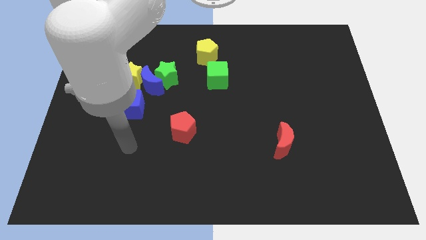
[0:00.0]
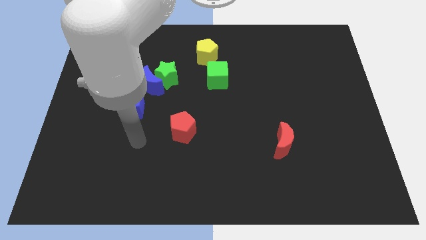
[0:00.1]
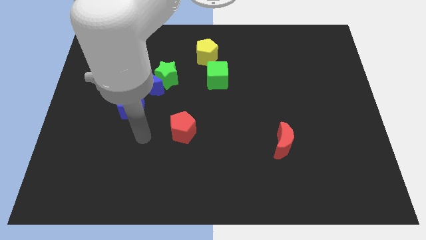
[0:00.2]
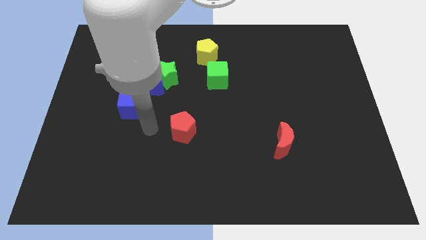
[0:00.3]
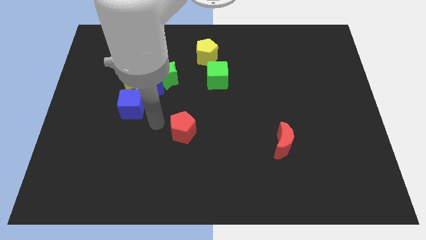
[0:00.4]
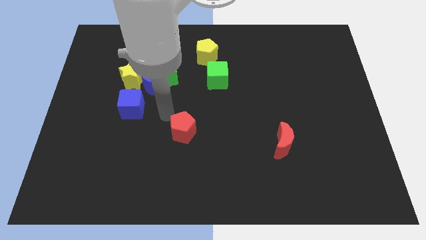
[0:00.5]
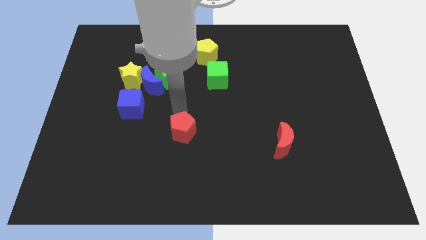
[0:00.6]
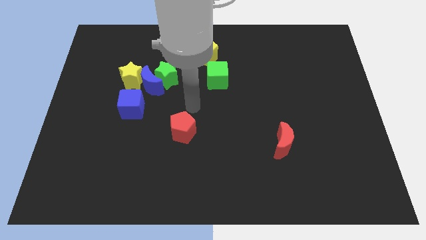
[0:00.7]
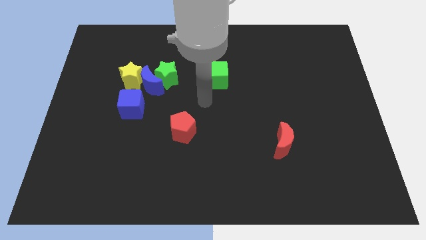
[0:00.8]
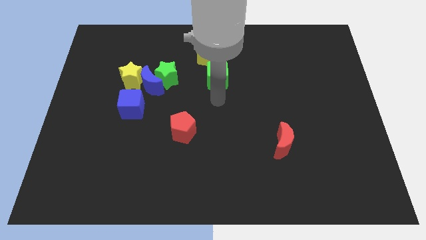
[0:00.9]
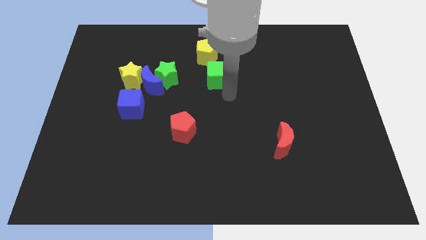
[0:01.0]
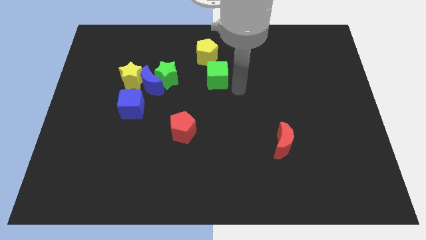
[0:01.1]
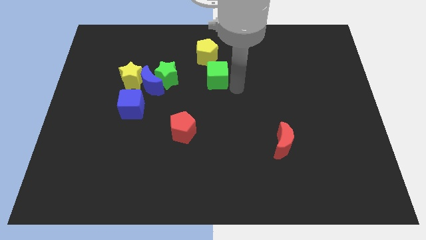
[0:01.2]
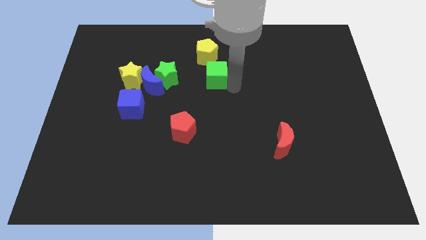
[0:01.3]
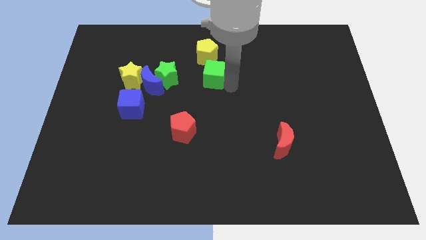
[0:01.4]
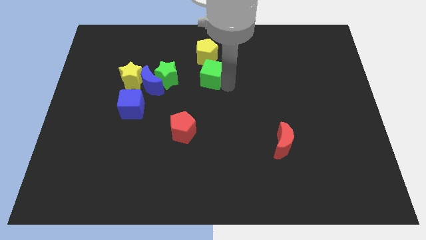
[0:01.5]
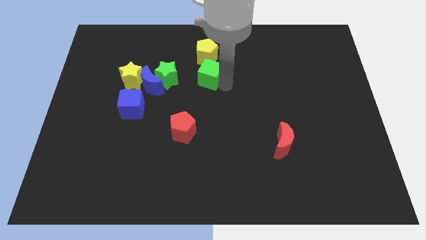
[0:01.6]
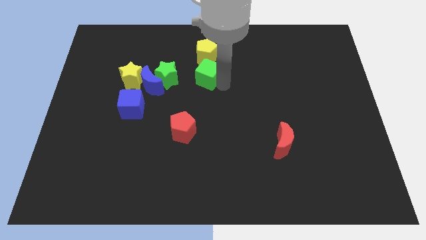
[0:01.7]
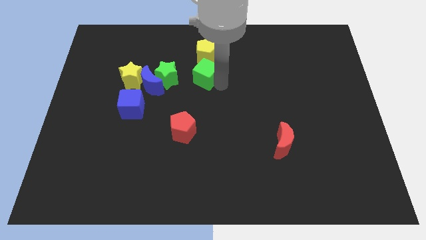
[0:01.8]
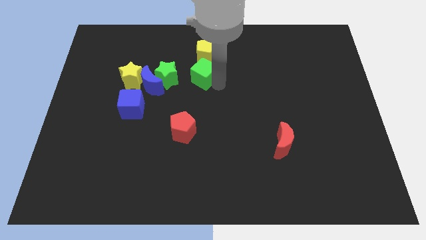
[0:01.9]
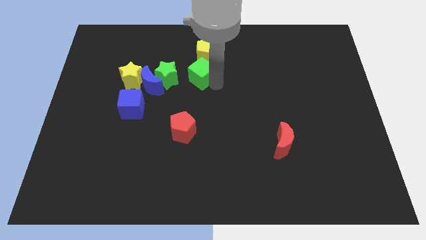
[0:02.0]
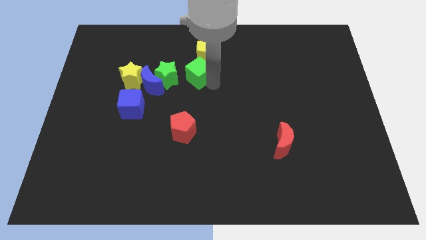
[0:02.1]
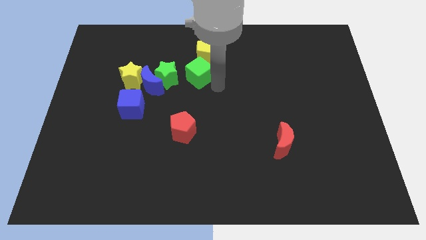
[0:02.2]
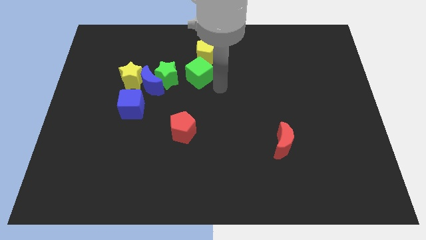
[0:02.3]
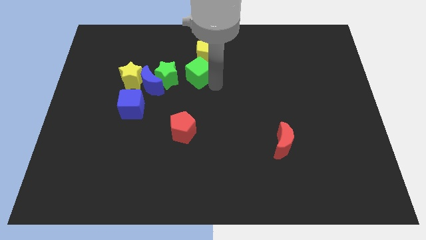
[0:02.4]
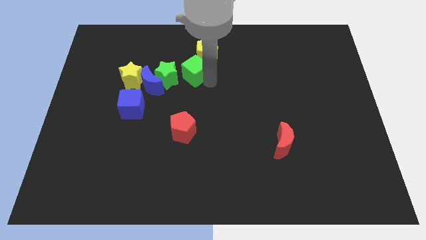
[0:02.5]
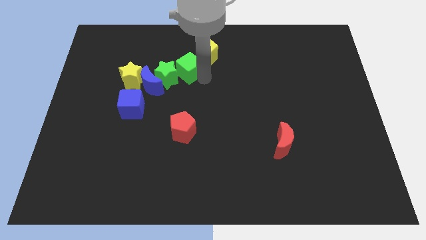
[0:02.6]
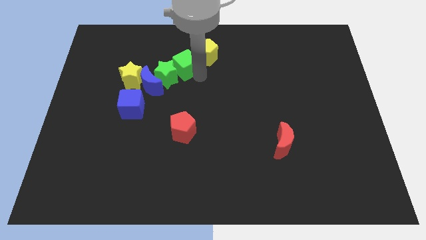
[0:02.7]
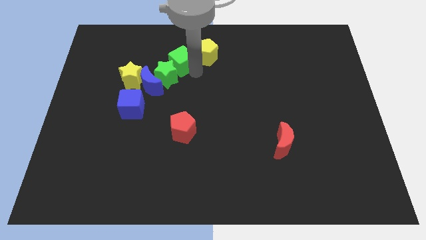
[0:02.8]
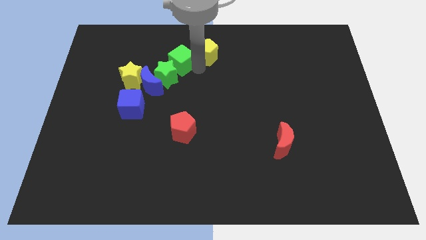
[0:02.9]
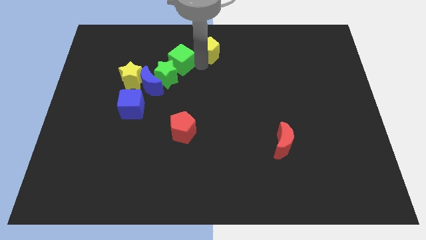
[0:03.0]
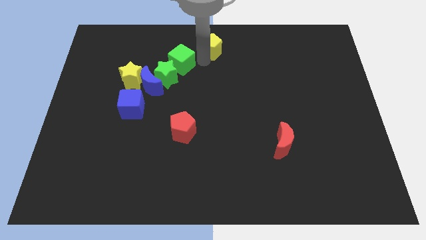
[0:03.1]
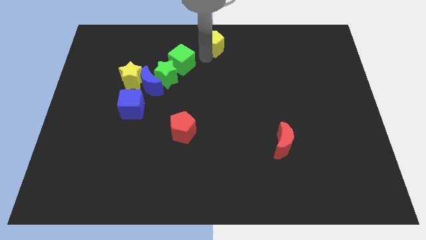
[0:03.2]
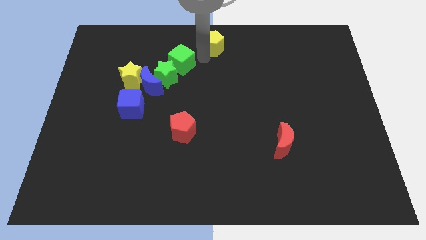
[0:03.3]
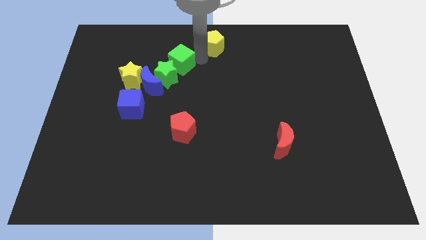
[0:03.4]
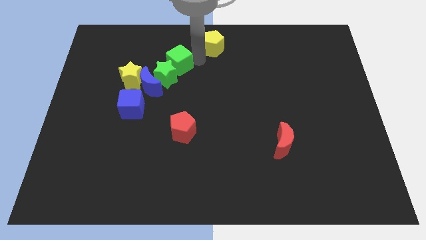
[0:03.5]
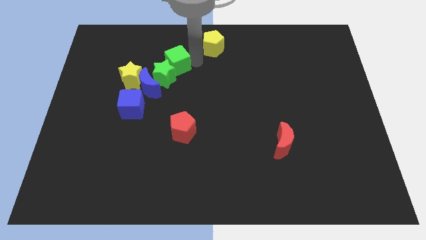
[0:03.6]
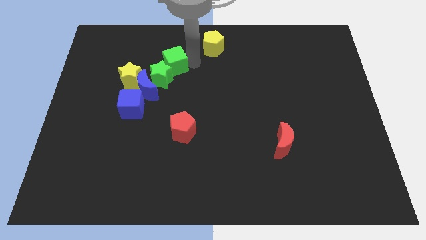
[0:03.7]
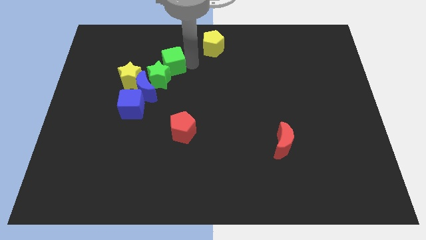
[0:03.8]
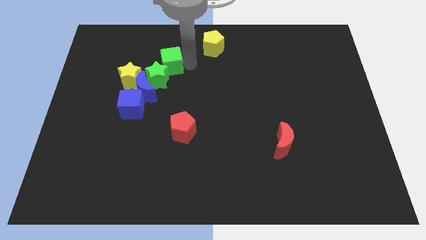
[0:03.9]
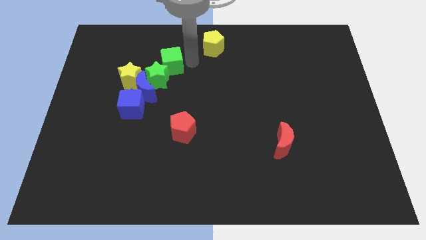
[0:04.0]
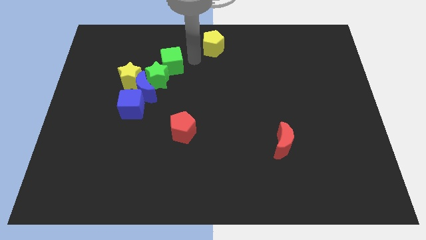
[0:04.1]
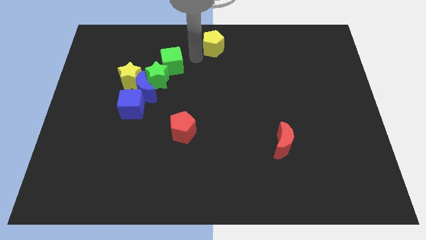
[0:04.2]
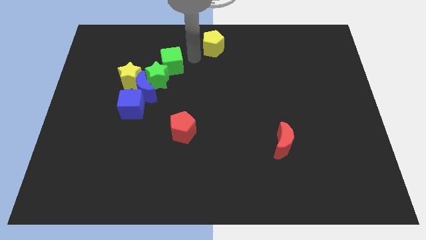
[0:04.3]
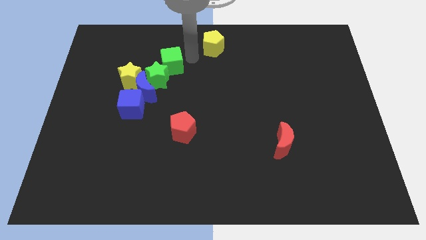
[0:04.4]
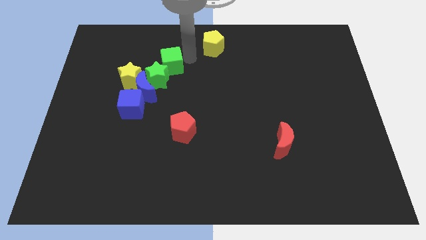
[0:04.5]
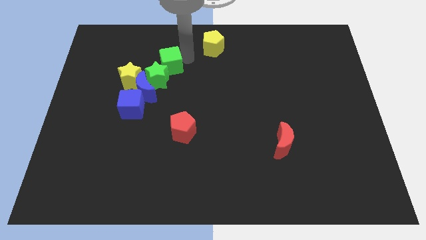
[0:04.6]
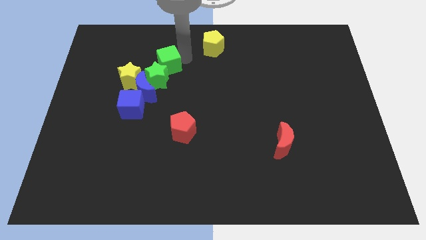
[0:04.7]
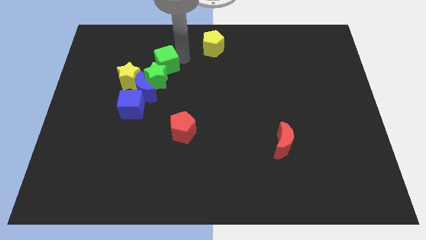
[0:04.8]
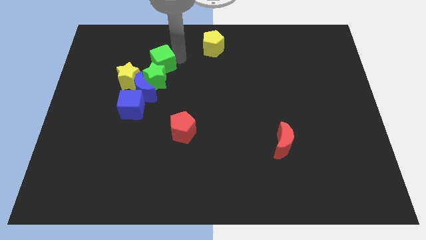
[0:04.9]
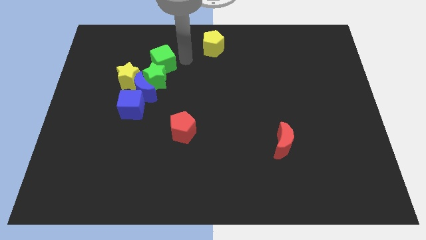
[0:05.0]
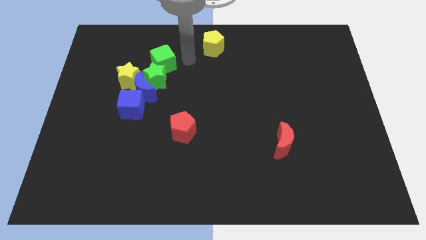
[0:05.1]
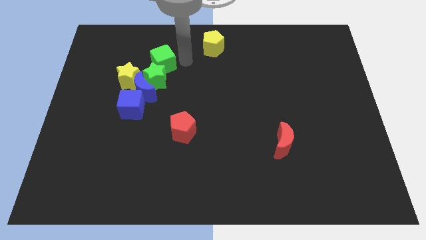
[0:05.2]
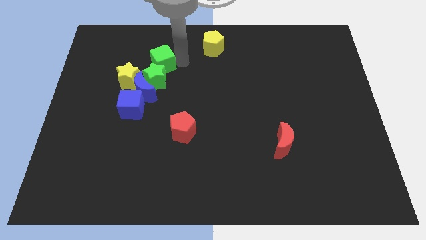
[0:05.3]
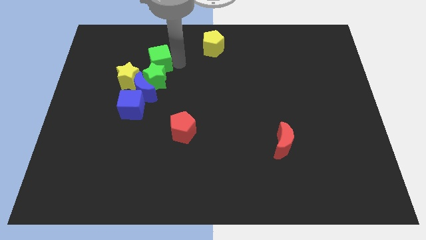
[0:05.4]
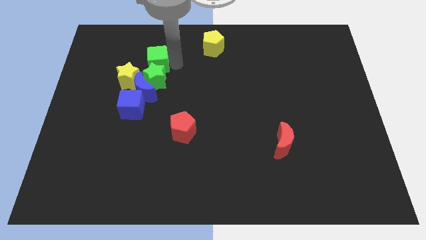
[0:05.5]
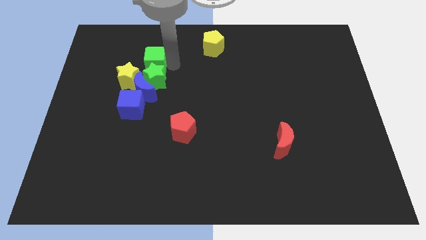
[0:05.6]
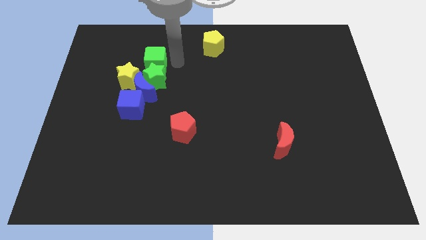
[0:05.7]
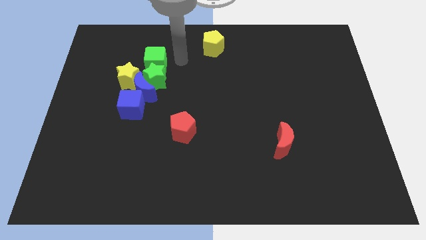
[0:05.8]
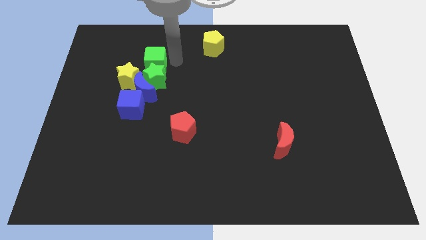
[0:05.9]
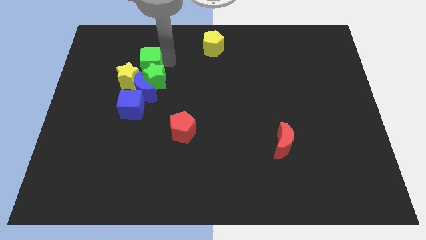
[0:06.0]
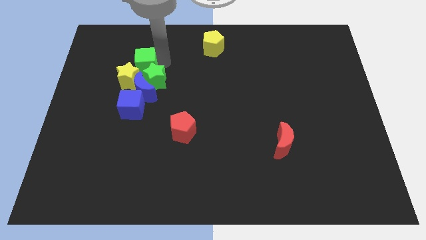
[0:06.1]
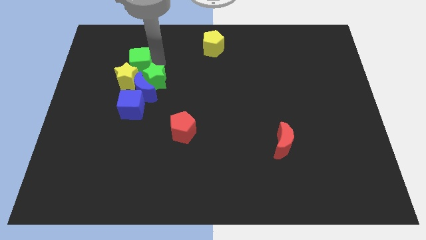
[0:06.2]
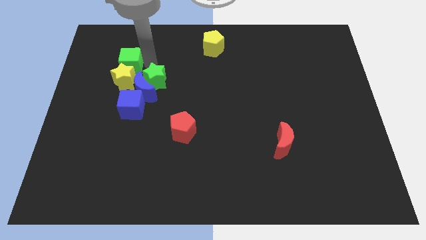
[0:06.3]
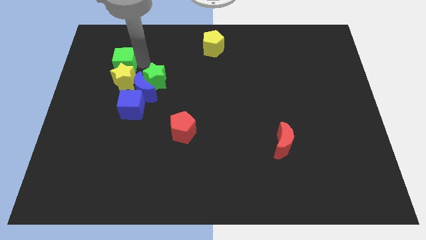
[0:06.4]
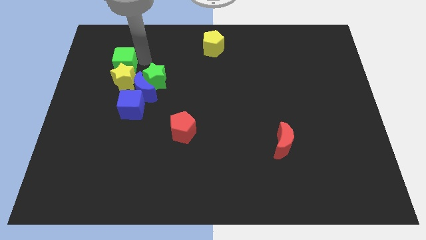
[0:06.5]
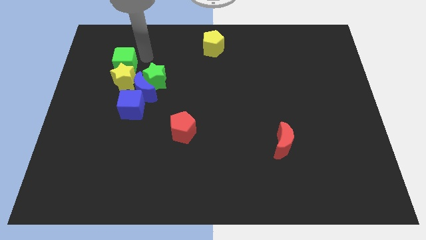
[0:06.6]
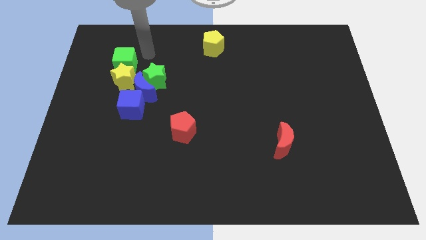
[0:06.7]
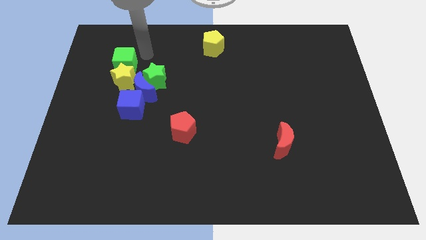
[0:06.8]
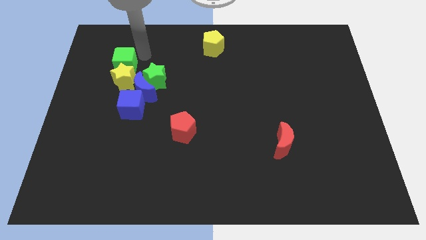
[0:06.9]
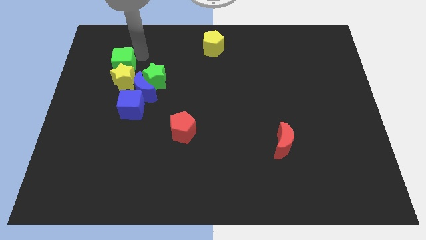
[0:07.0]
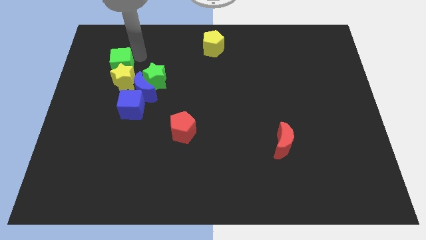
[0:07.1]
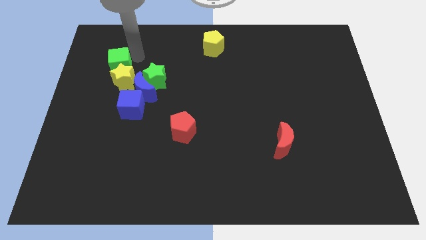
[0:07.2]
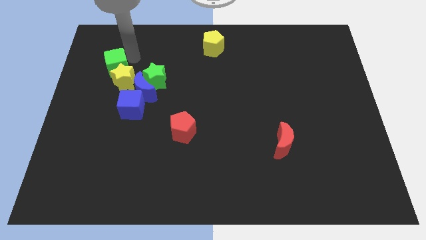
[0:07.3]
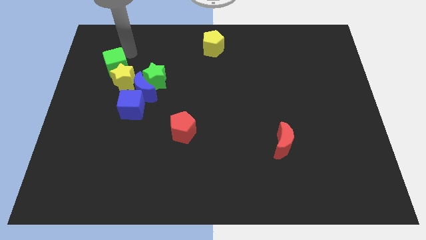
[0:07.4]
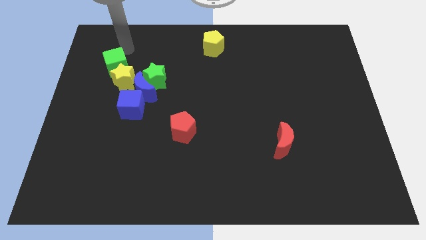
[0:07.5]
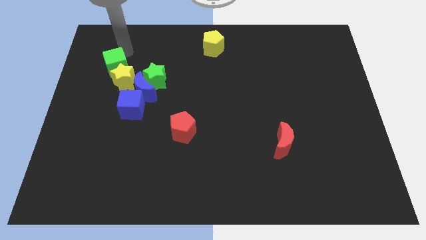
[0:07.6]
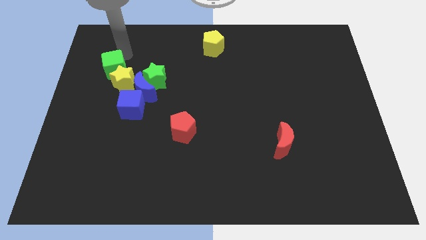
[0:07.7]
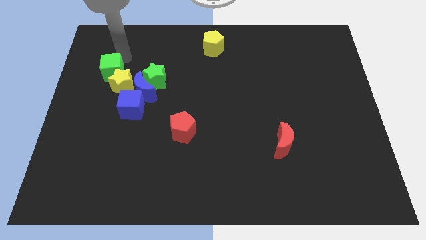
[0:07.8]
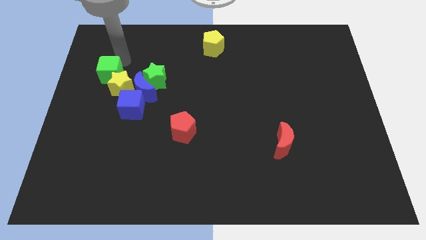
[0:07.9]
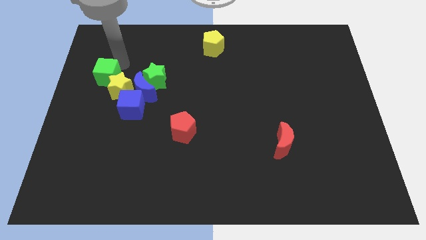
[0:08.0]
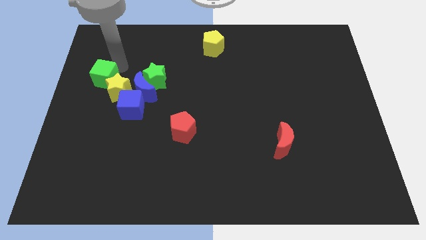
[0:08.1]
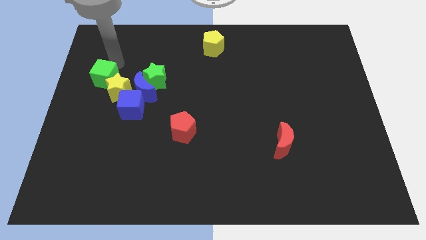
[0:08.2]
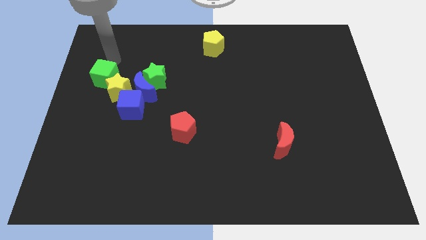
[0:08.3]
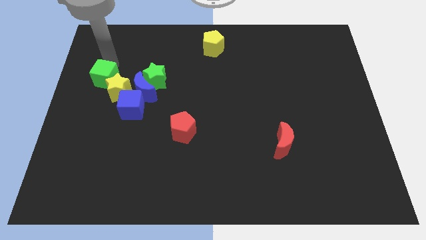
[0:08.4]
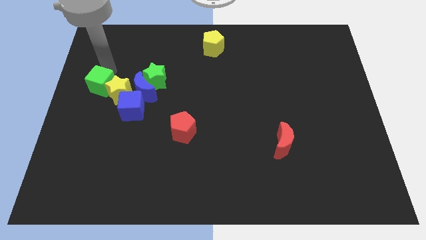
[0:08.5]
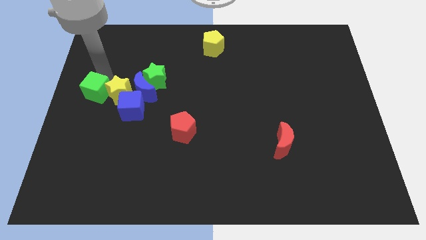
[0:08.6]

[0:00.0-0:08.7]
push the green cube to the bottom left side of the yellow star
